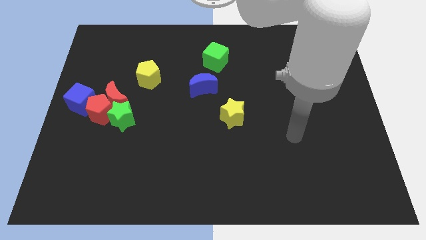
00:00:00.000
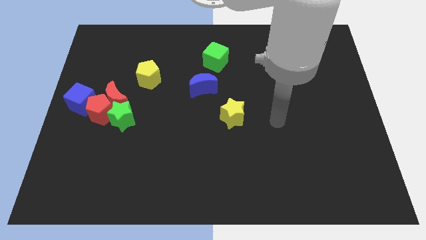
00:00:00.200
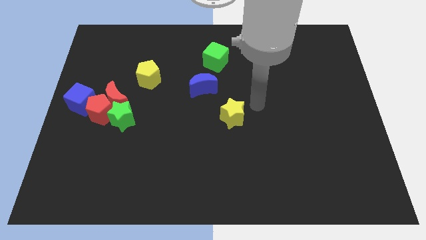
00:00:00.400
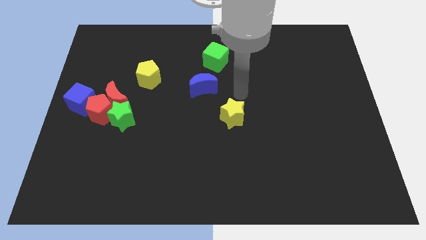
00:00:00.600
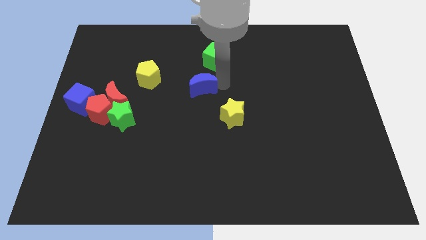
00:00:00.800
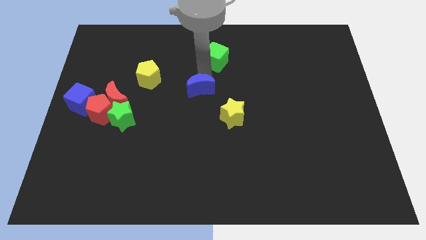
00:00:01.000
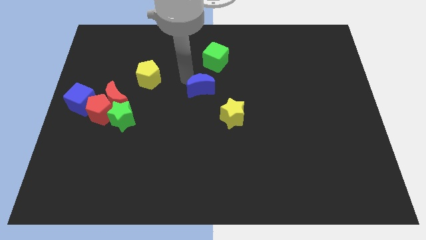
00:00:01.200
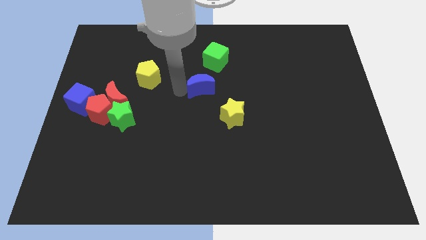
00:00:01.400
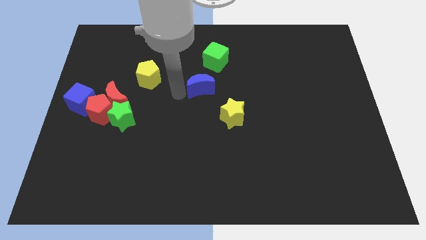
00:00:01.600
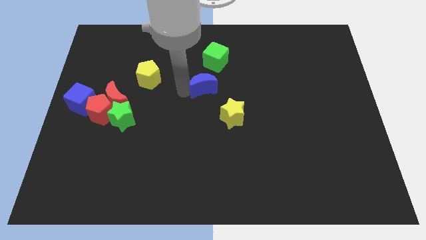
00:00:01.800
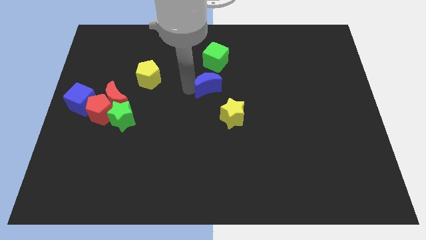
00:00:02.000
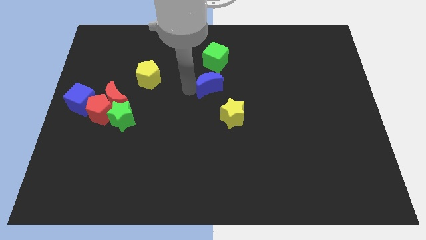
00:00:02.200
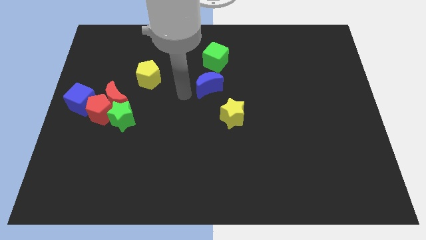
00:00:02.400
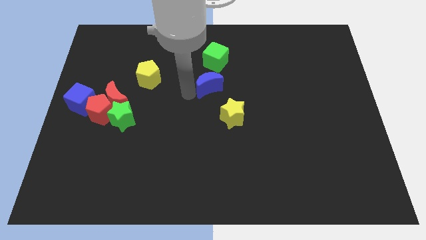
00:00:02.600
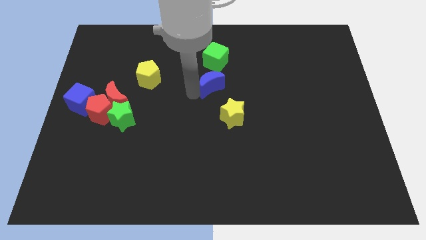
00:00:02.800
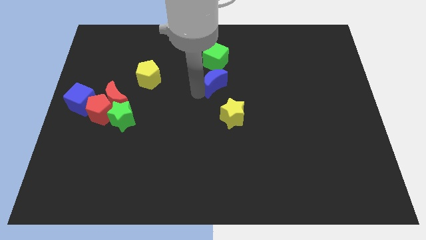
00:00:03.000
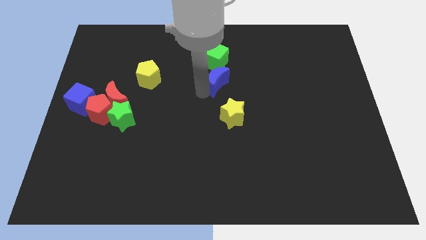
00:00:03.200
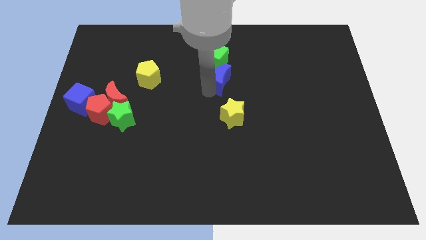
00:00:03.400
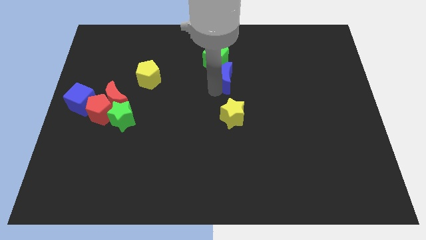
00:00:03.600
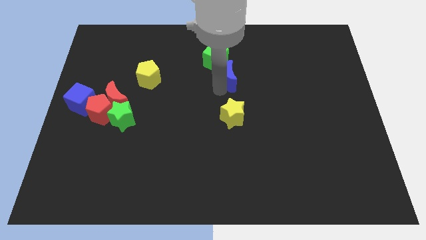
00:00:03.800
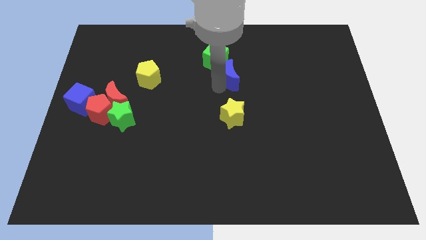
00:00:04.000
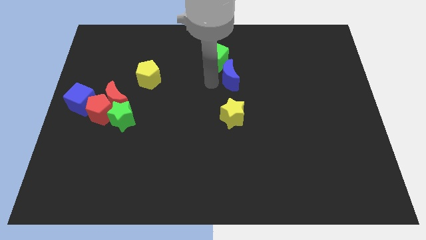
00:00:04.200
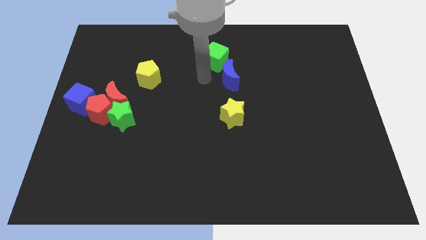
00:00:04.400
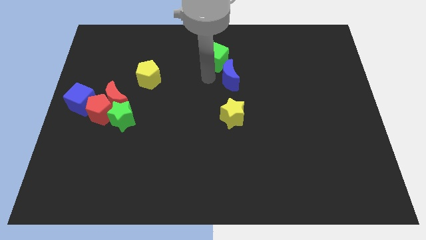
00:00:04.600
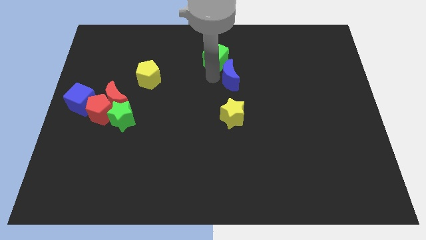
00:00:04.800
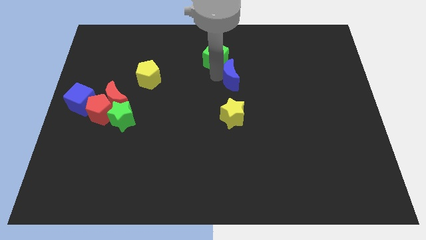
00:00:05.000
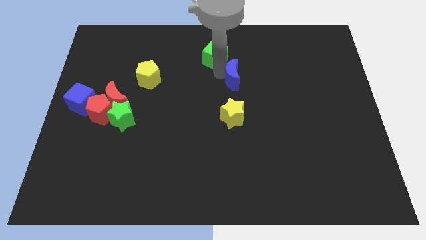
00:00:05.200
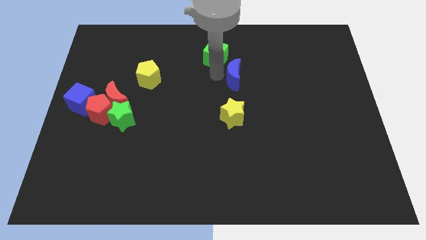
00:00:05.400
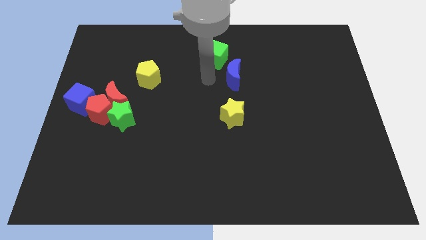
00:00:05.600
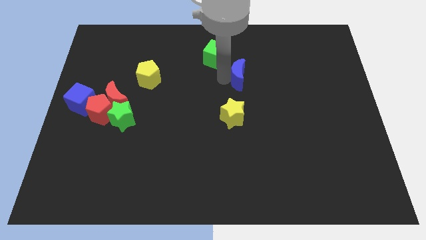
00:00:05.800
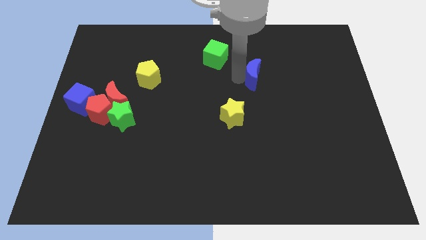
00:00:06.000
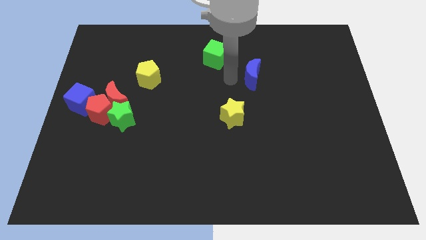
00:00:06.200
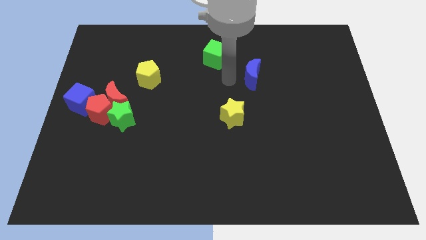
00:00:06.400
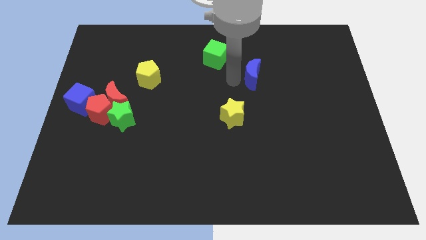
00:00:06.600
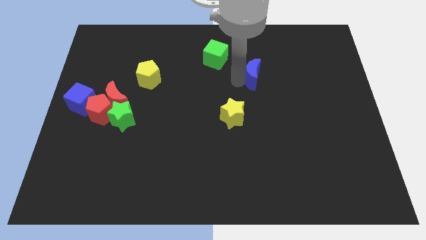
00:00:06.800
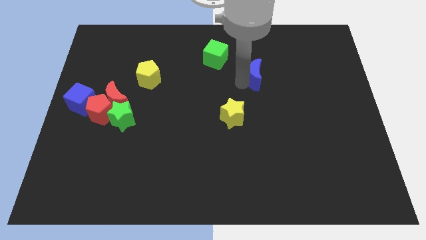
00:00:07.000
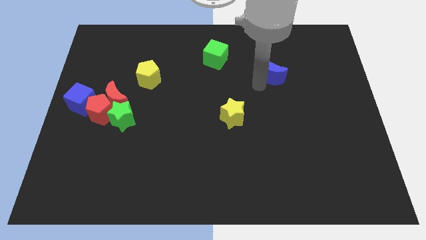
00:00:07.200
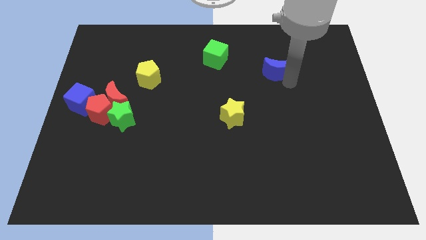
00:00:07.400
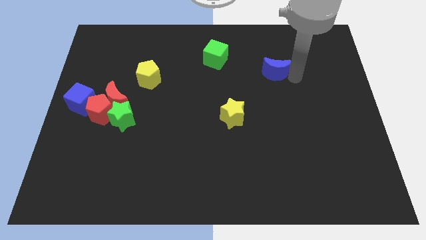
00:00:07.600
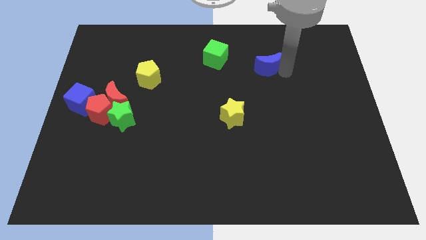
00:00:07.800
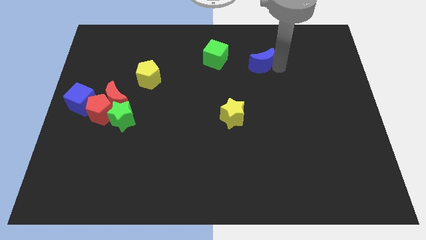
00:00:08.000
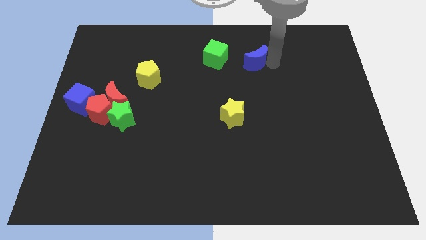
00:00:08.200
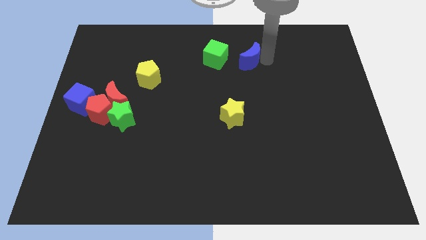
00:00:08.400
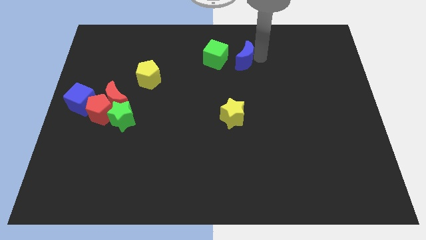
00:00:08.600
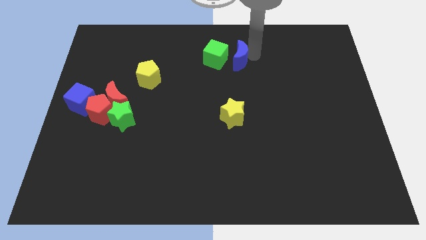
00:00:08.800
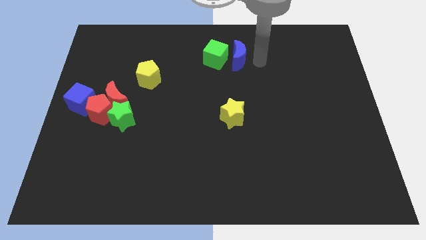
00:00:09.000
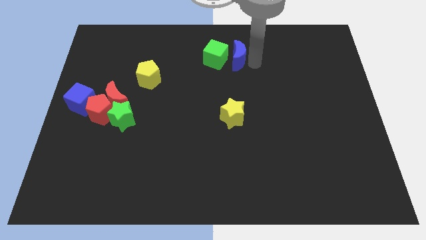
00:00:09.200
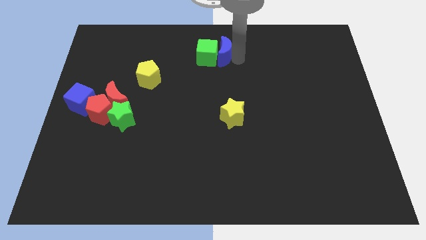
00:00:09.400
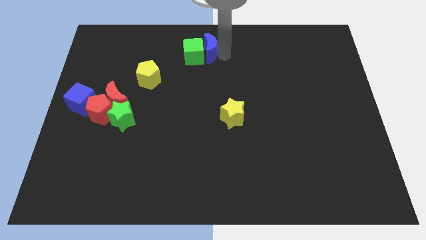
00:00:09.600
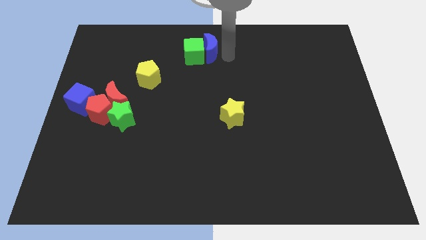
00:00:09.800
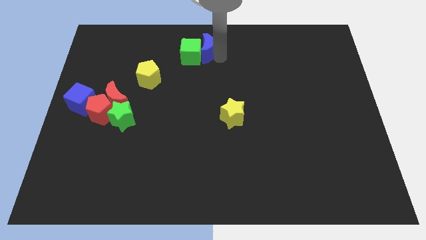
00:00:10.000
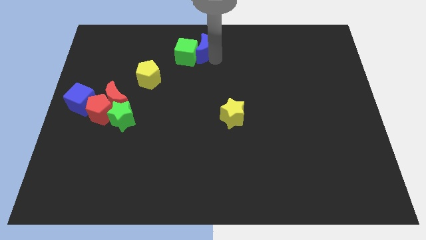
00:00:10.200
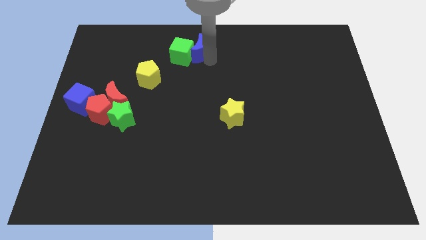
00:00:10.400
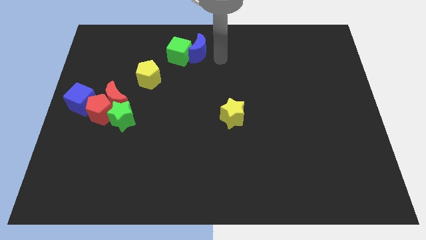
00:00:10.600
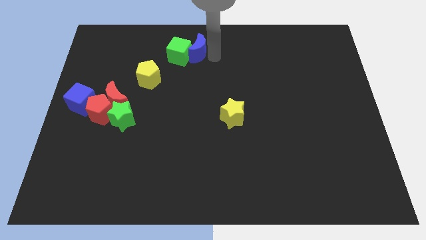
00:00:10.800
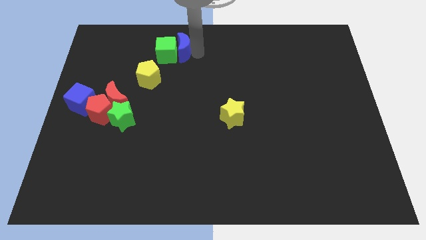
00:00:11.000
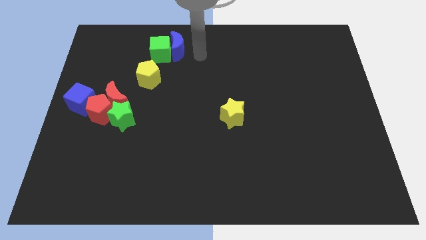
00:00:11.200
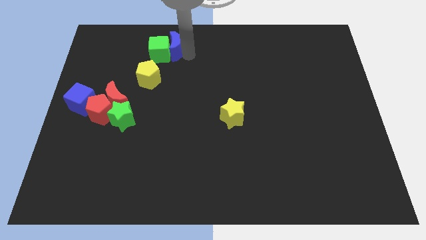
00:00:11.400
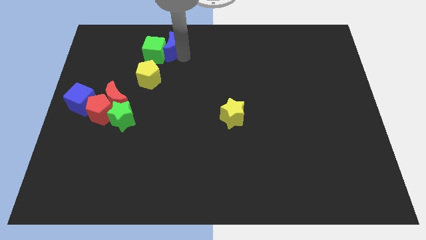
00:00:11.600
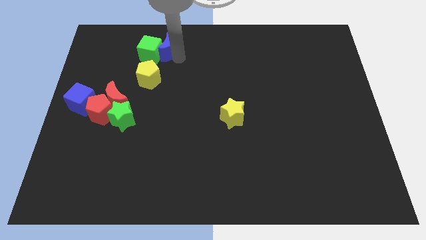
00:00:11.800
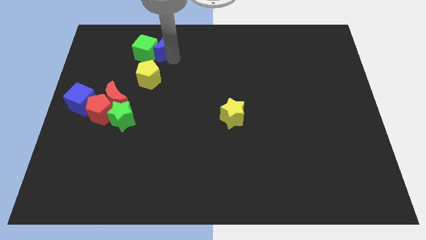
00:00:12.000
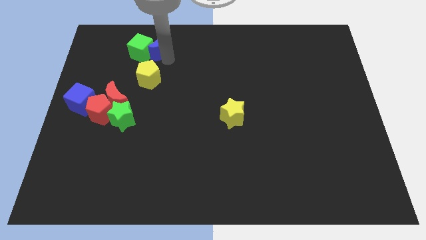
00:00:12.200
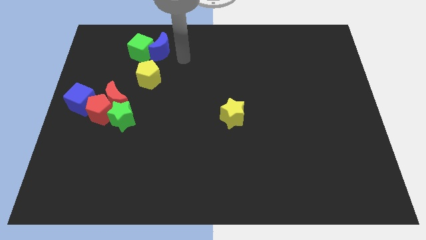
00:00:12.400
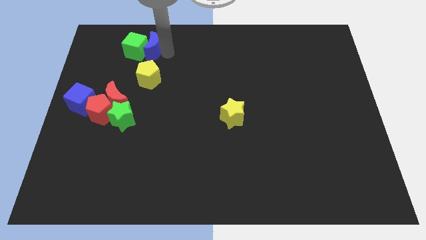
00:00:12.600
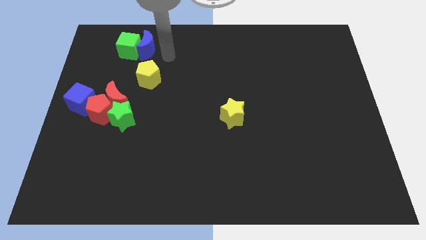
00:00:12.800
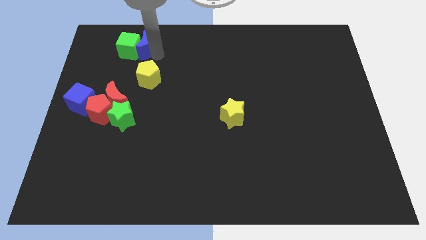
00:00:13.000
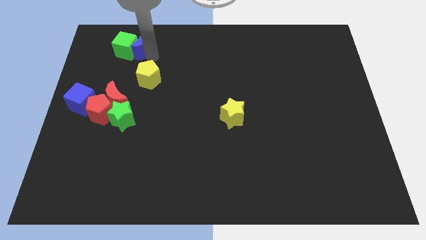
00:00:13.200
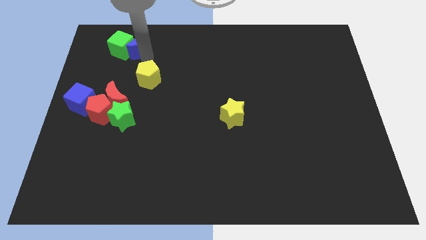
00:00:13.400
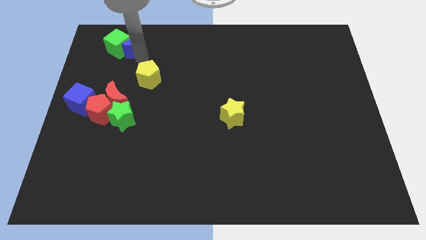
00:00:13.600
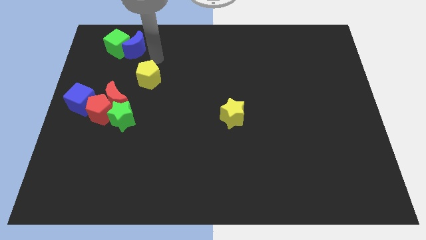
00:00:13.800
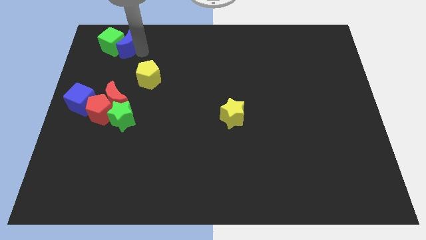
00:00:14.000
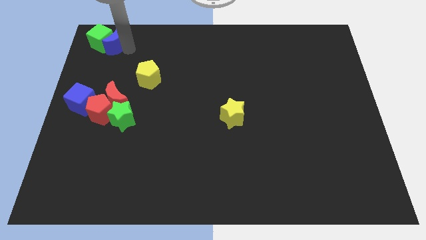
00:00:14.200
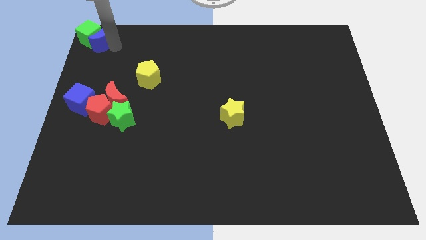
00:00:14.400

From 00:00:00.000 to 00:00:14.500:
push the blue moon to the upper left corner
